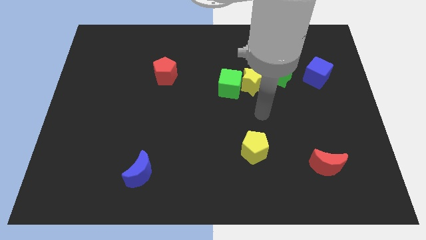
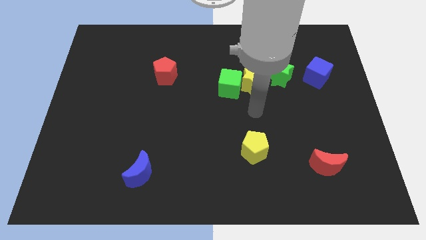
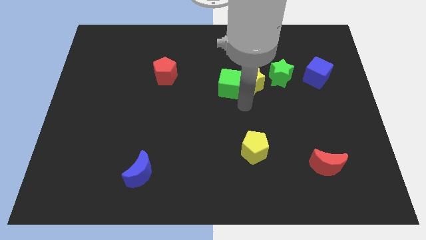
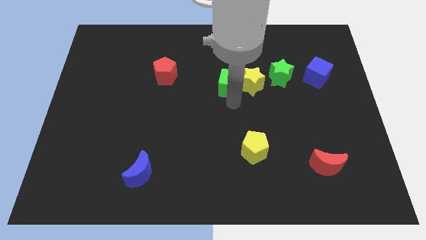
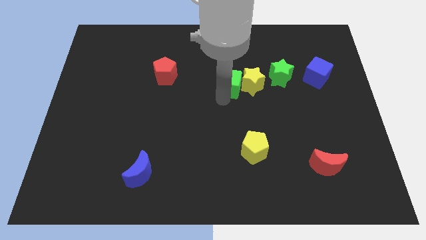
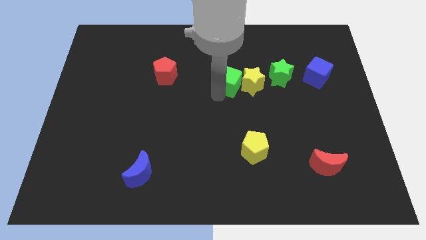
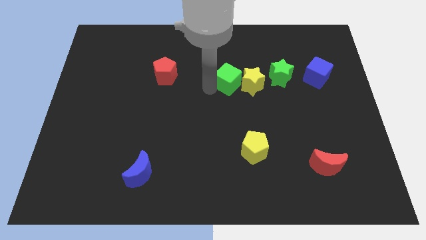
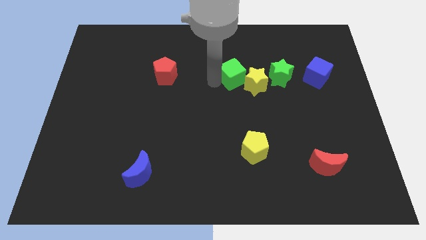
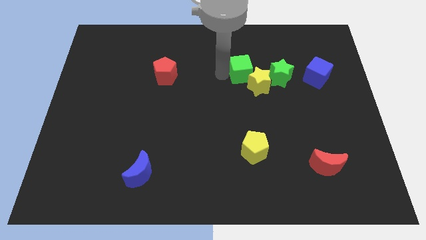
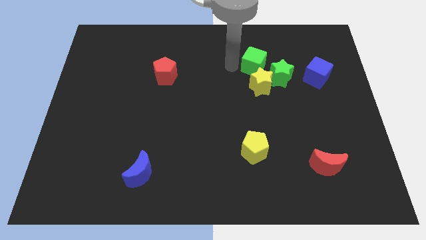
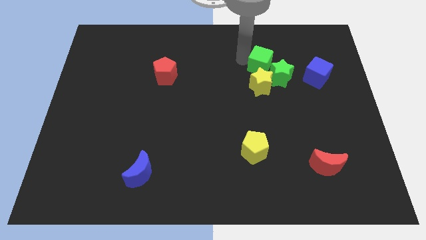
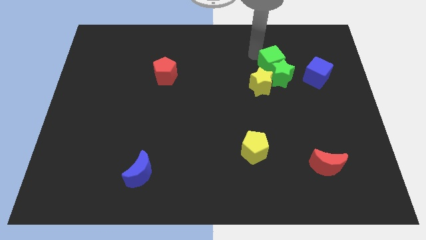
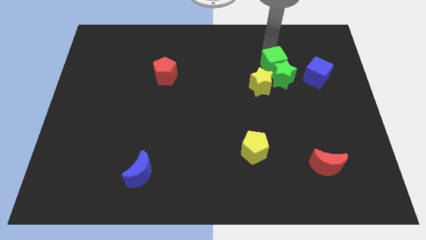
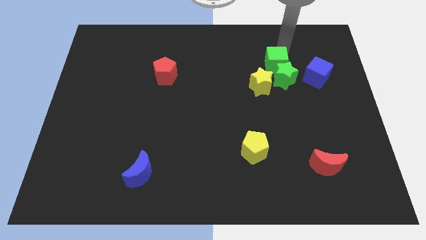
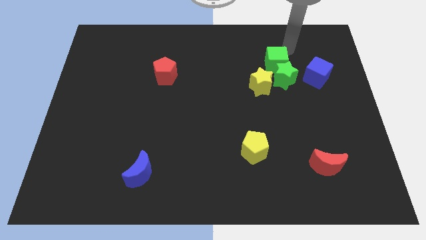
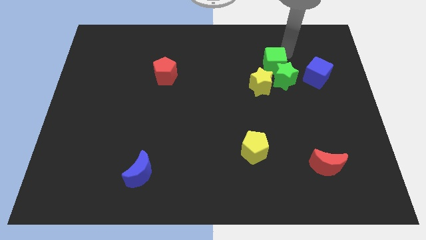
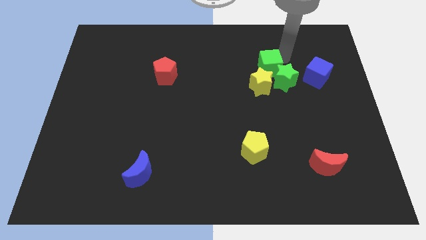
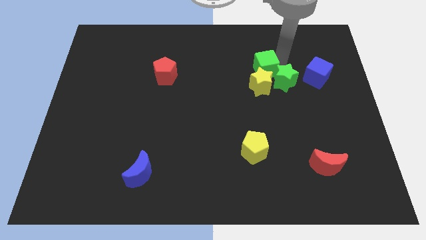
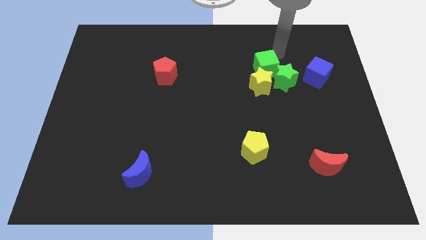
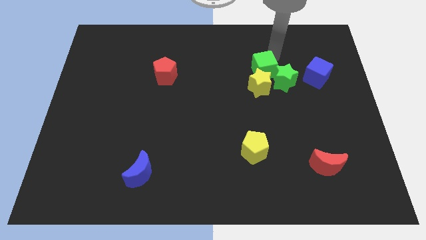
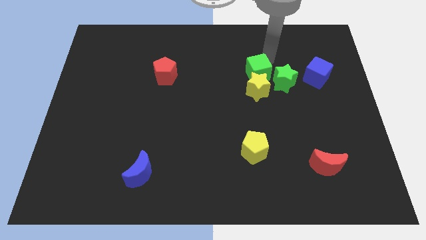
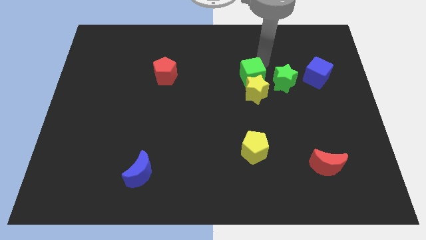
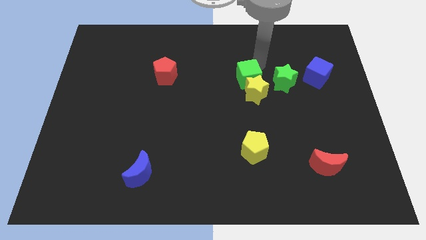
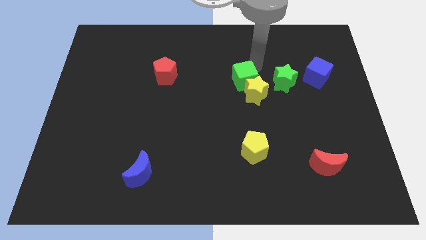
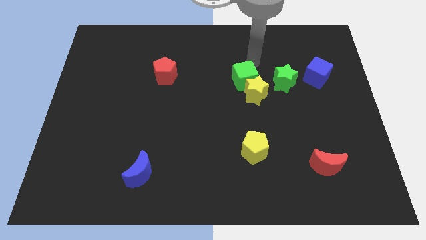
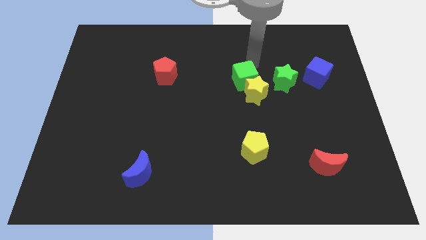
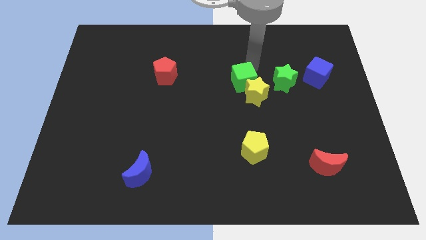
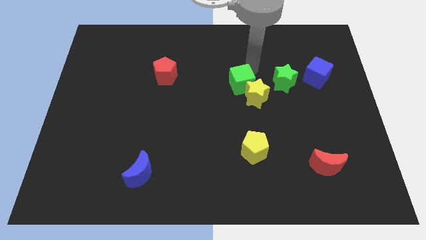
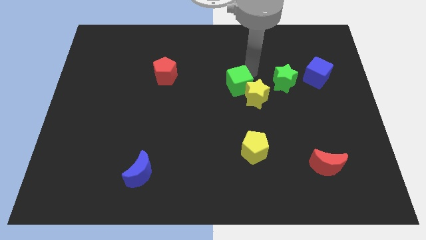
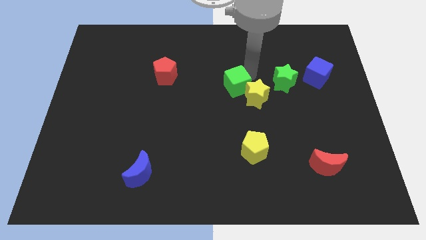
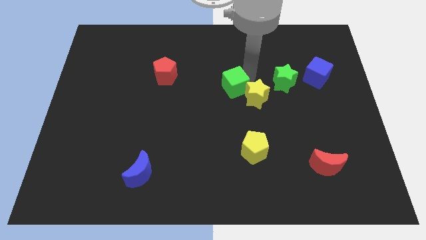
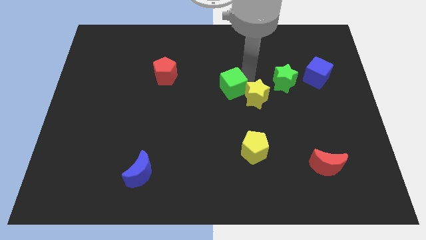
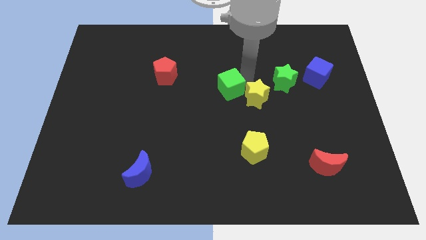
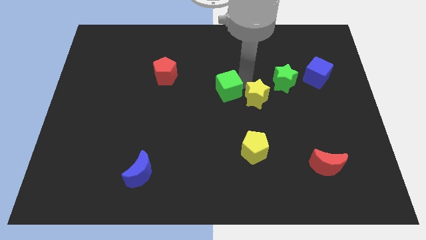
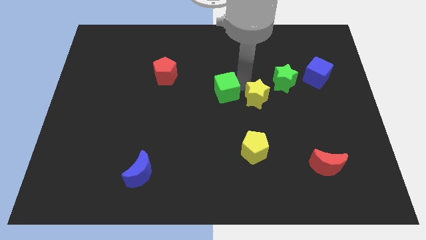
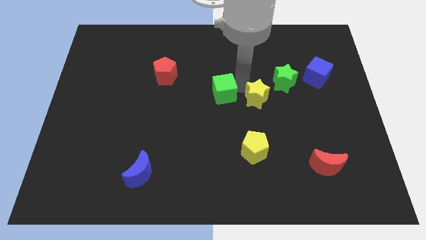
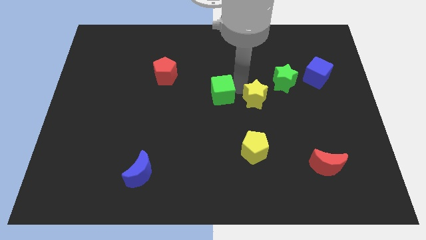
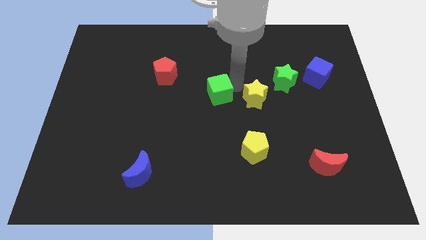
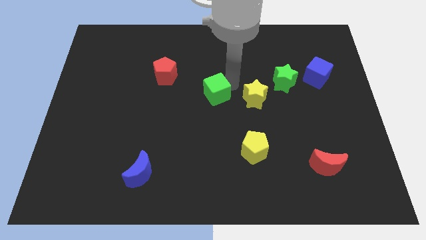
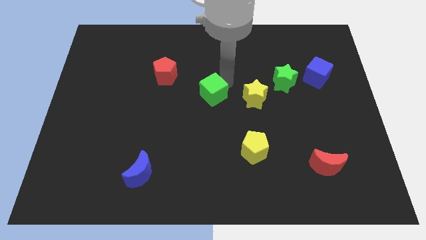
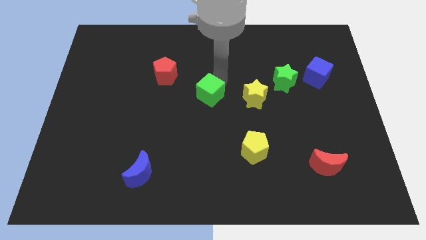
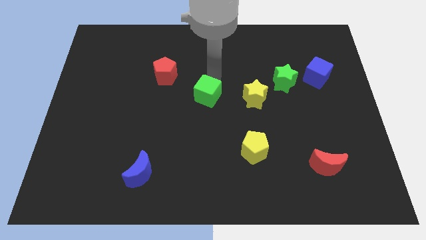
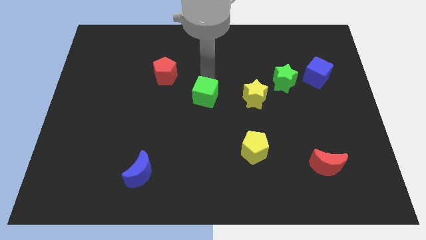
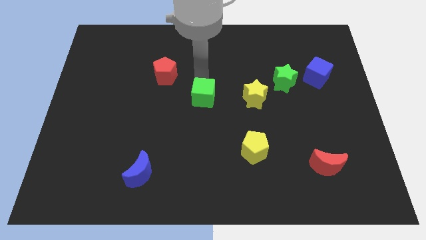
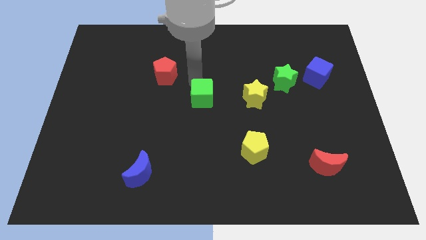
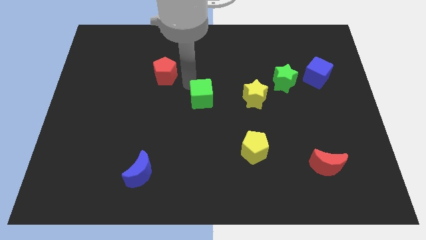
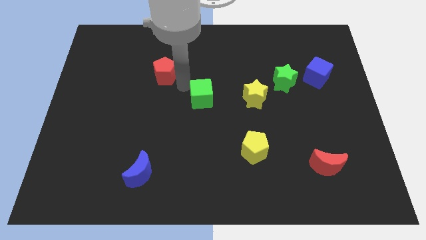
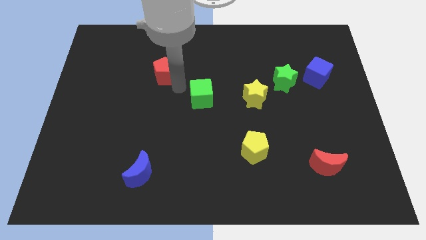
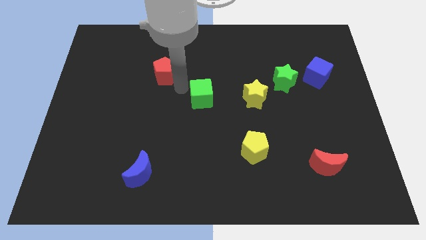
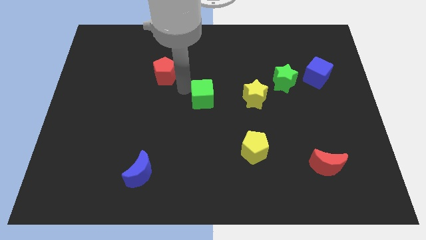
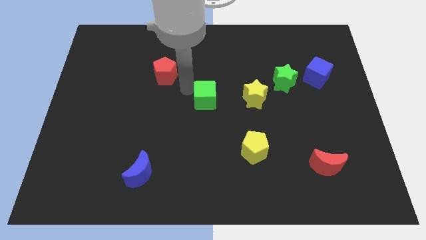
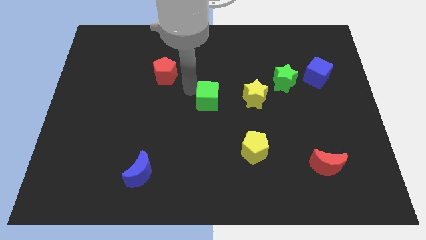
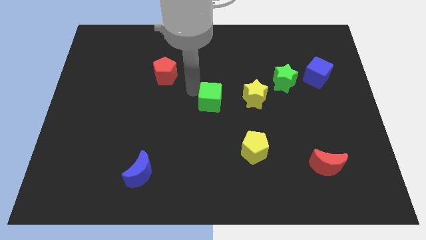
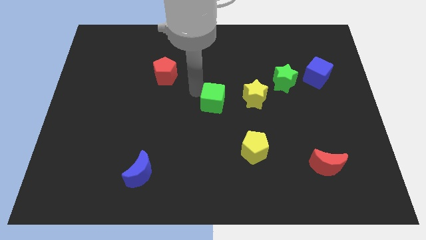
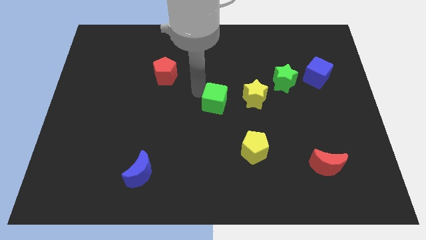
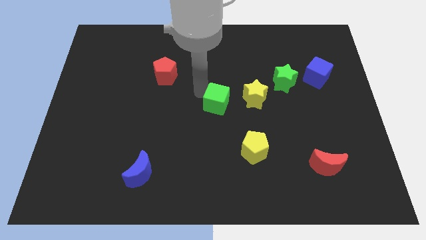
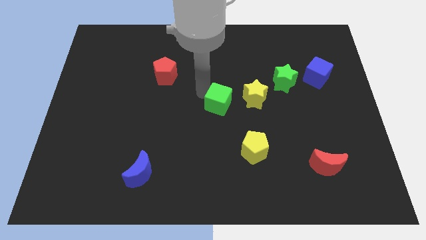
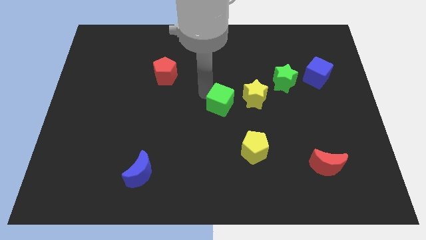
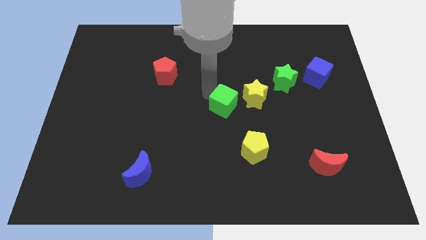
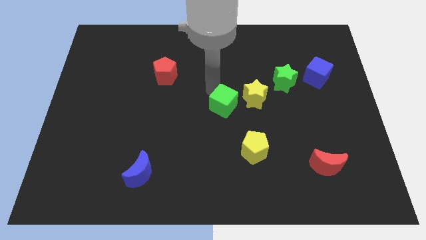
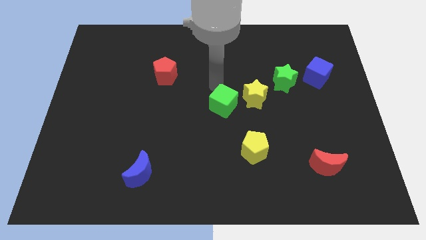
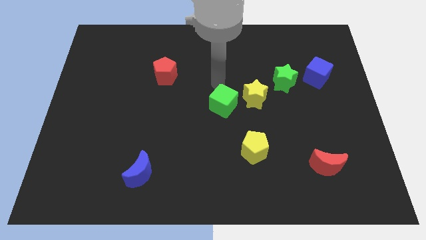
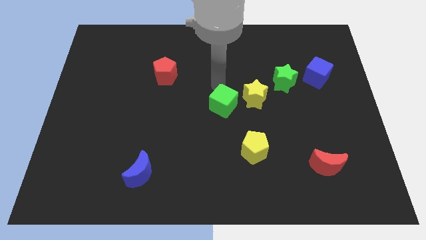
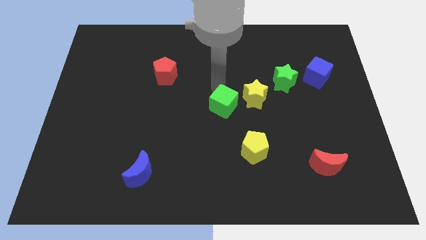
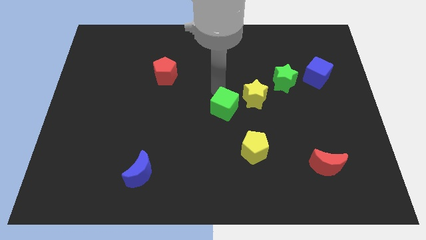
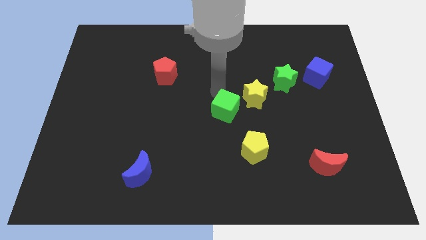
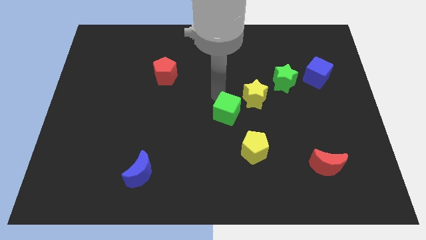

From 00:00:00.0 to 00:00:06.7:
move the green cube to the top left of the yellow pentagon

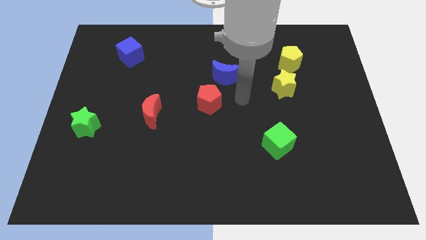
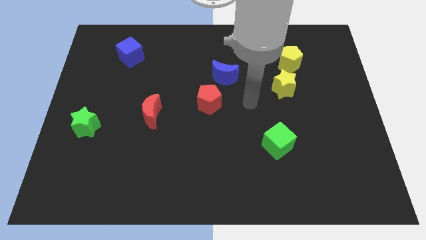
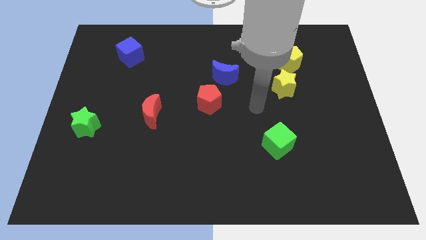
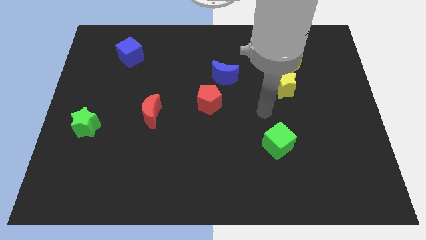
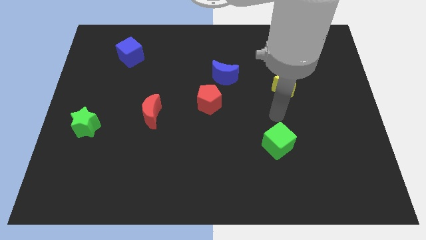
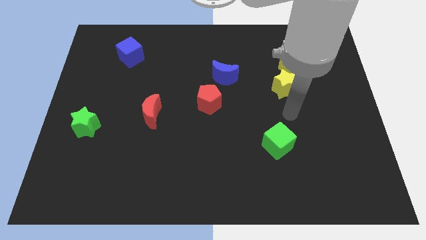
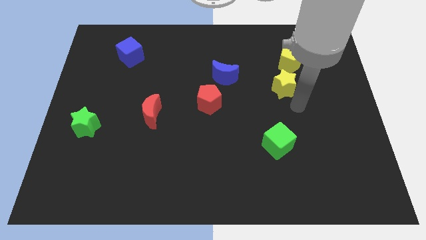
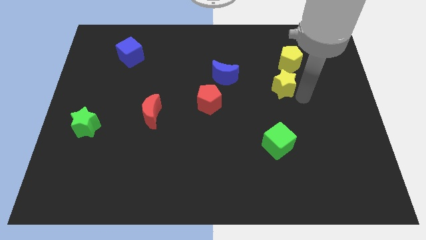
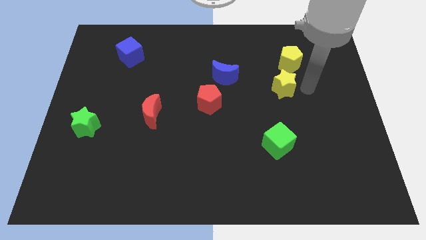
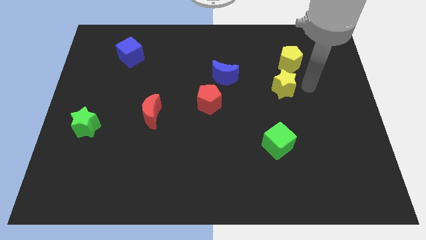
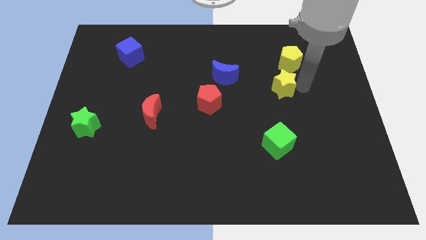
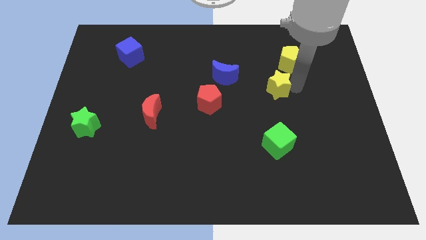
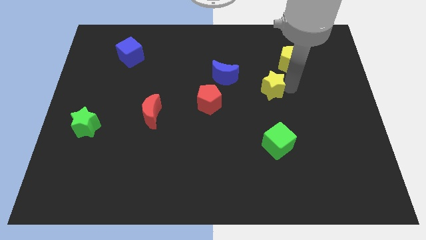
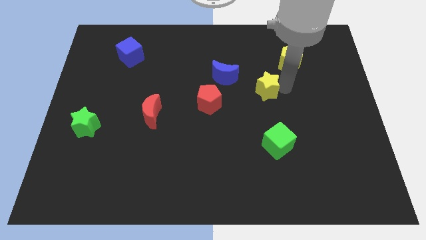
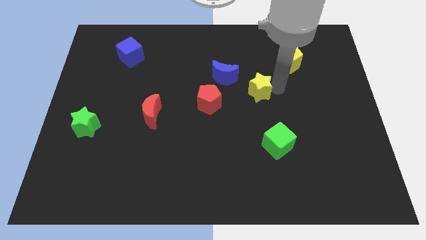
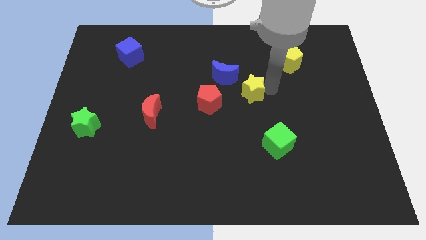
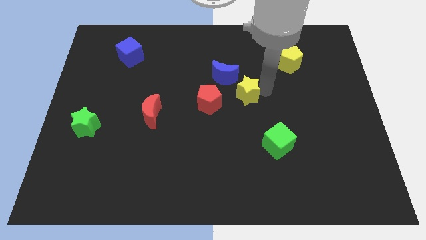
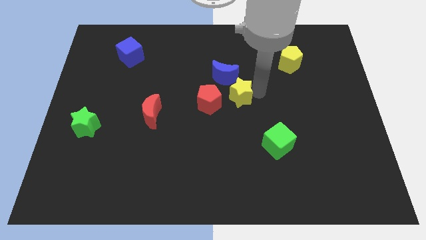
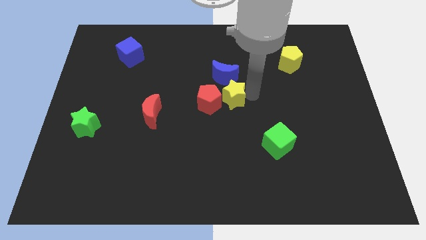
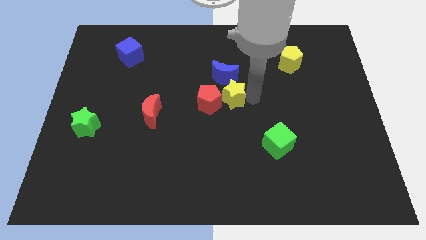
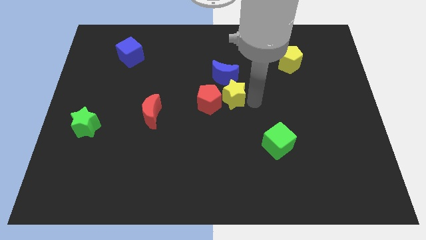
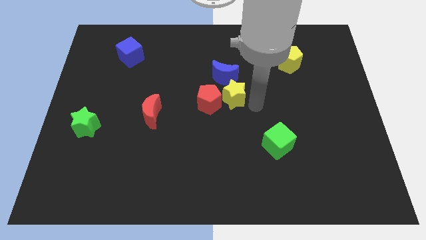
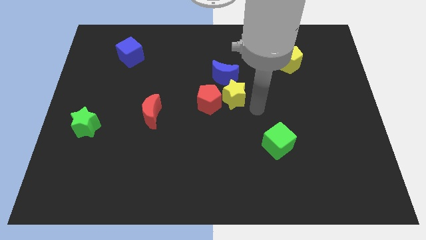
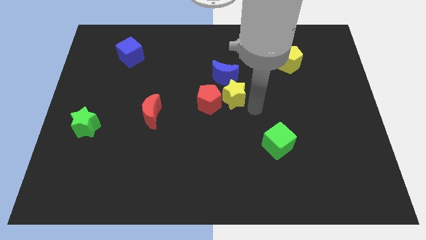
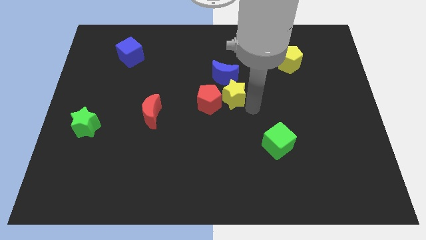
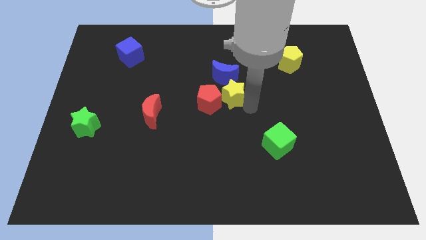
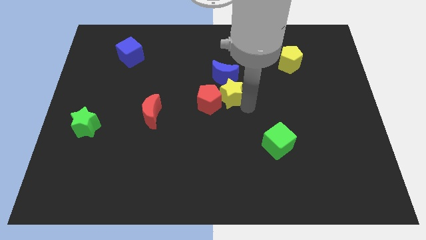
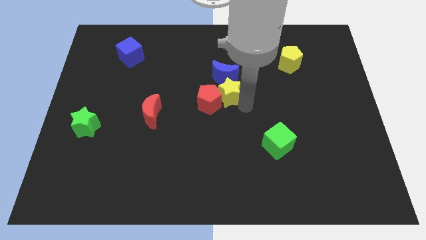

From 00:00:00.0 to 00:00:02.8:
put the yellow star to the bottom left side of the blue moon
